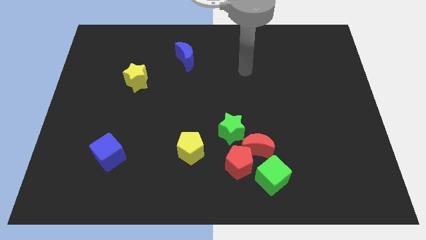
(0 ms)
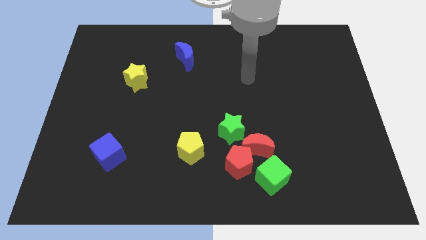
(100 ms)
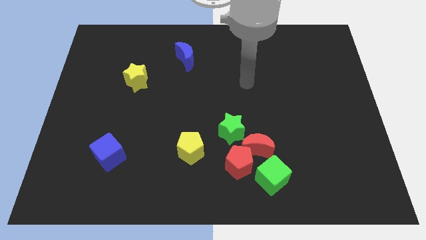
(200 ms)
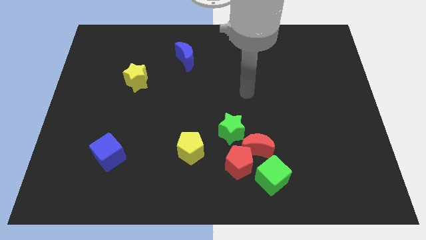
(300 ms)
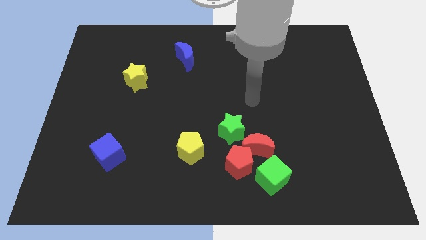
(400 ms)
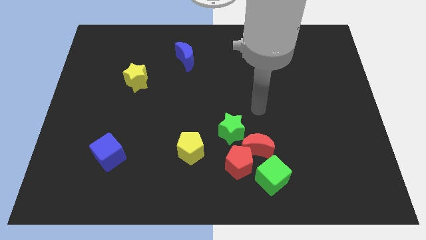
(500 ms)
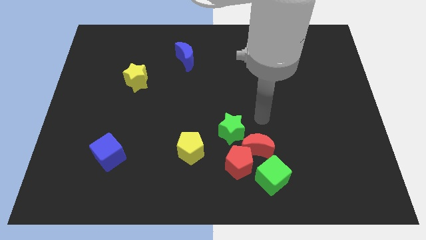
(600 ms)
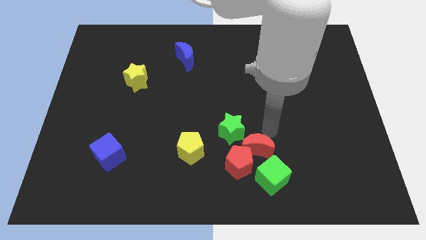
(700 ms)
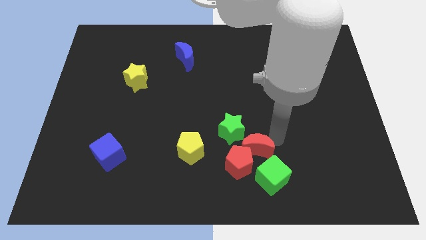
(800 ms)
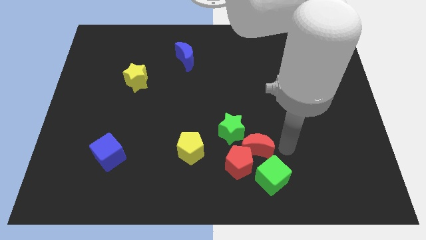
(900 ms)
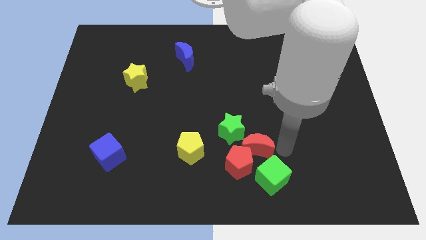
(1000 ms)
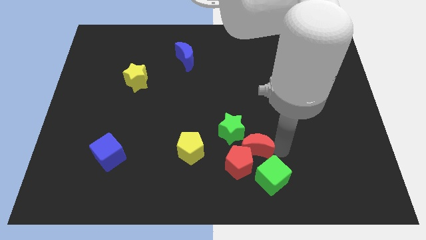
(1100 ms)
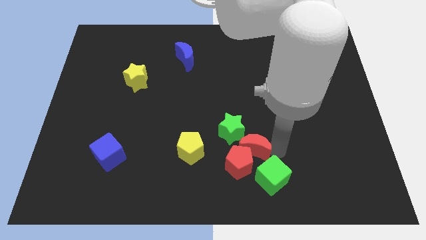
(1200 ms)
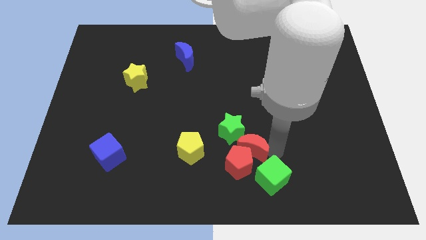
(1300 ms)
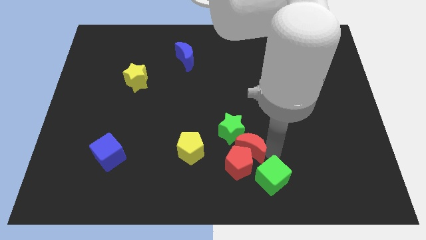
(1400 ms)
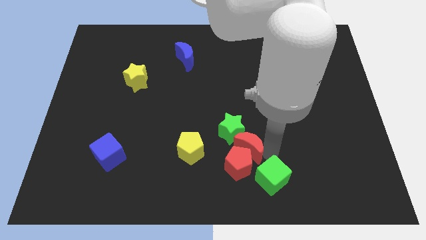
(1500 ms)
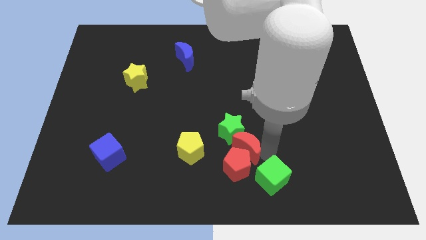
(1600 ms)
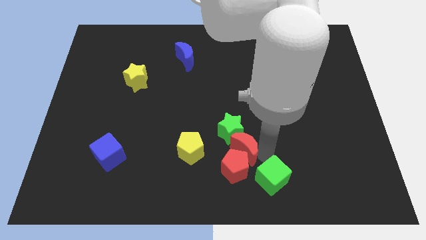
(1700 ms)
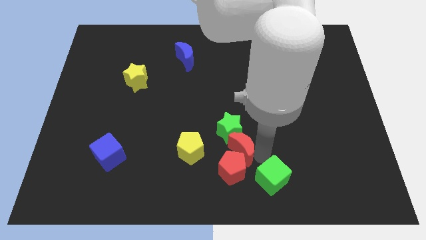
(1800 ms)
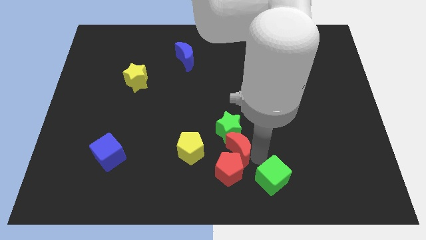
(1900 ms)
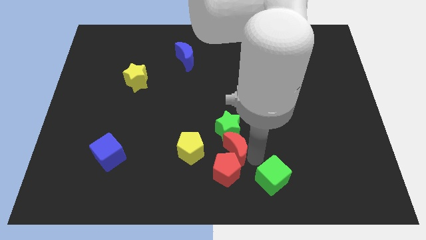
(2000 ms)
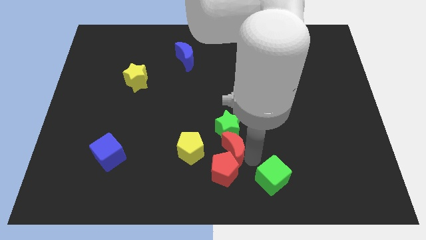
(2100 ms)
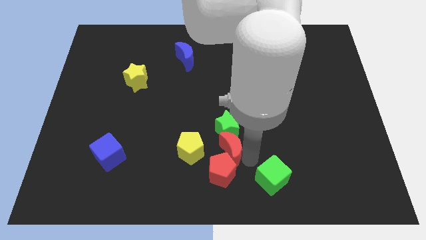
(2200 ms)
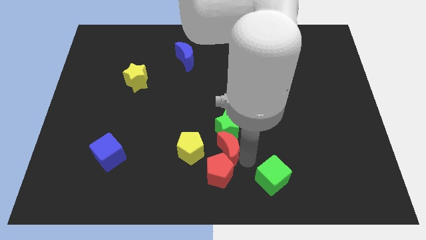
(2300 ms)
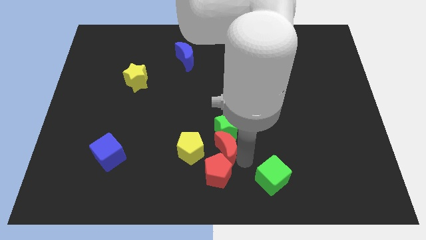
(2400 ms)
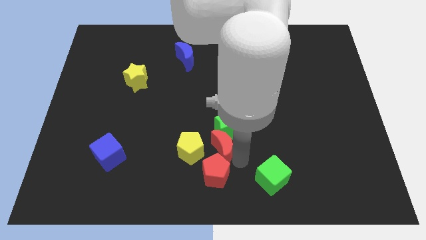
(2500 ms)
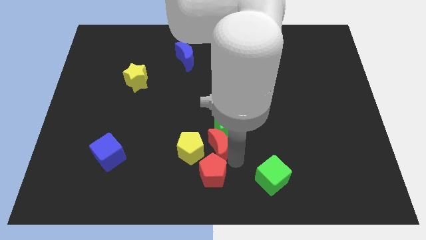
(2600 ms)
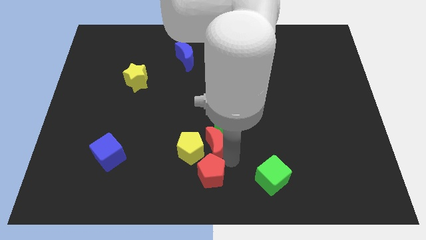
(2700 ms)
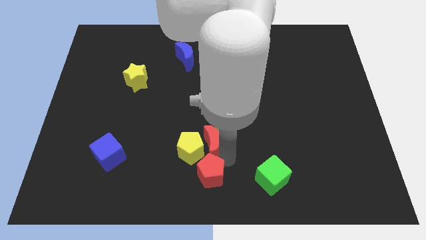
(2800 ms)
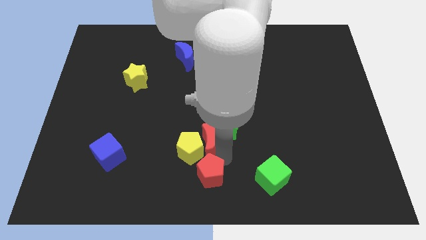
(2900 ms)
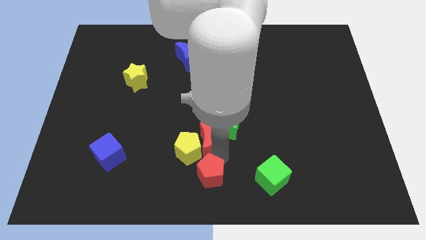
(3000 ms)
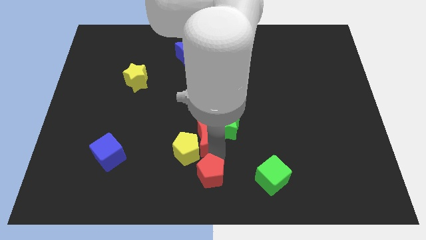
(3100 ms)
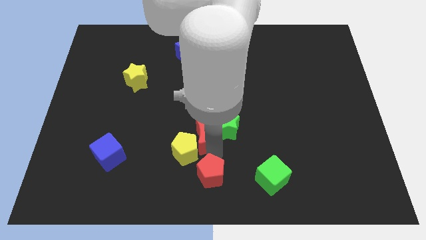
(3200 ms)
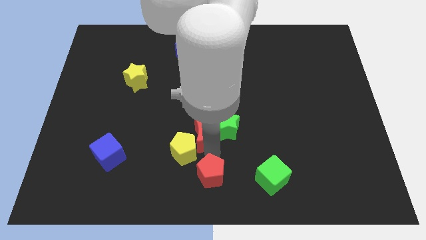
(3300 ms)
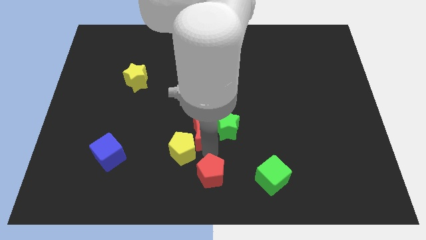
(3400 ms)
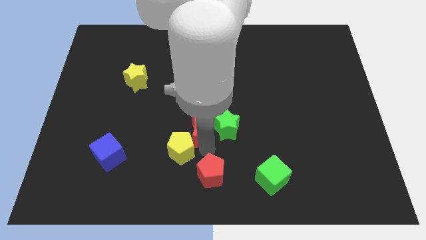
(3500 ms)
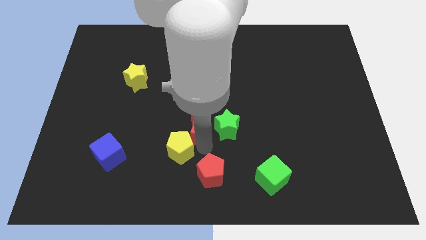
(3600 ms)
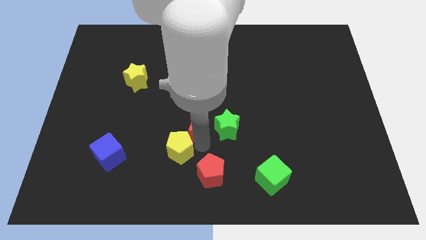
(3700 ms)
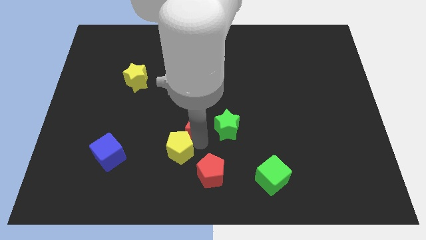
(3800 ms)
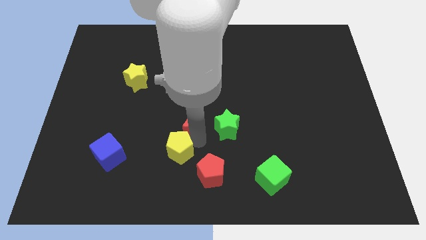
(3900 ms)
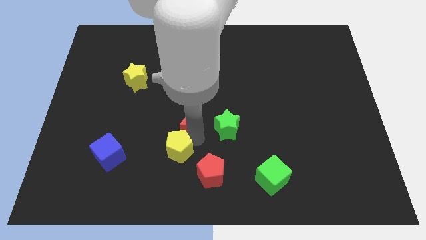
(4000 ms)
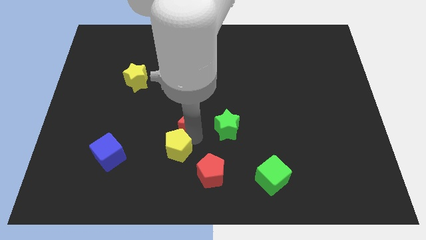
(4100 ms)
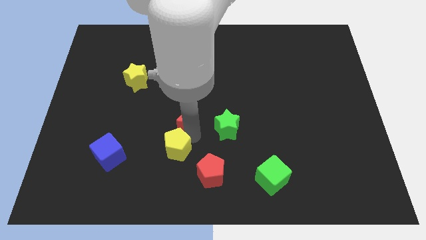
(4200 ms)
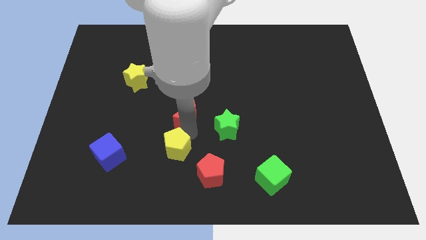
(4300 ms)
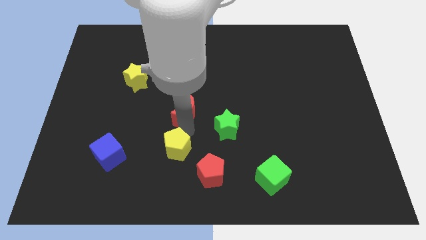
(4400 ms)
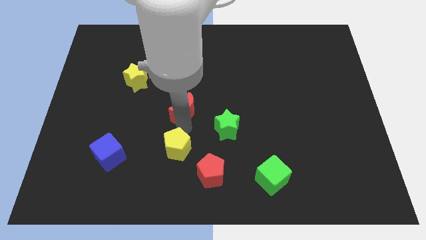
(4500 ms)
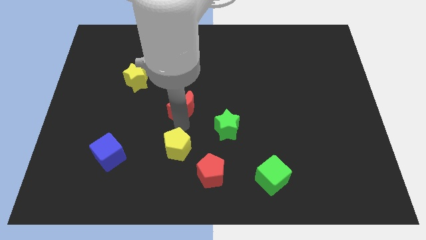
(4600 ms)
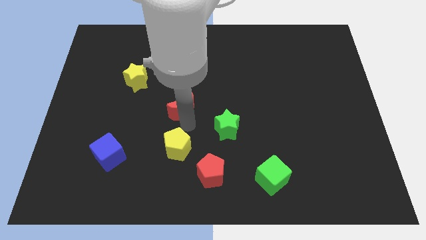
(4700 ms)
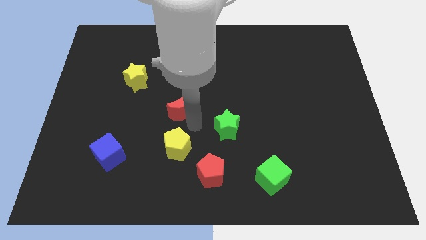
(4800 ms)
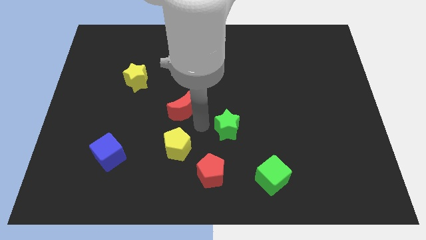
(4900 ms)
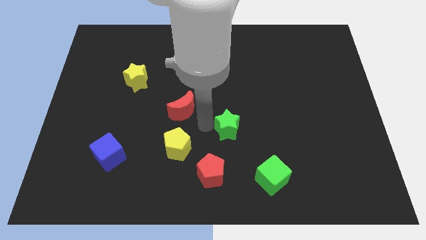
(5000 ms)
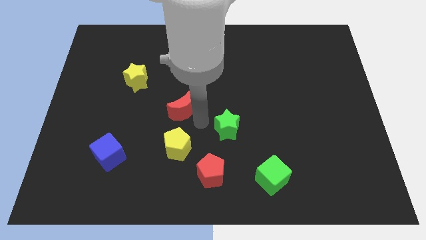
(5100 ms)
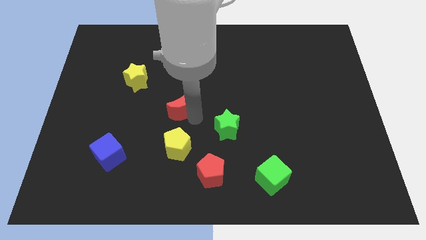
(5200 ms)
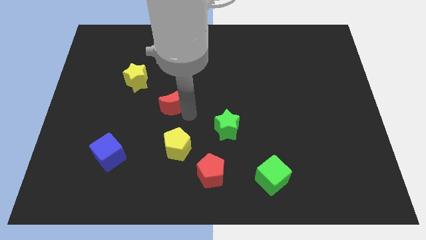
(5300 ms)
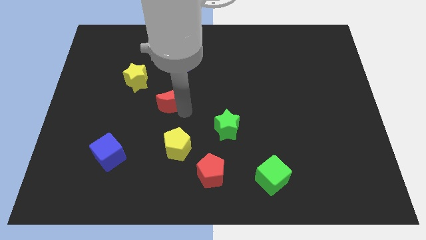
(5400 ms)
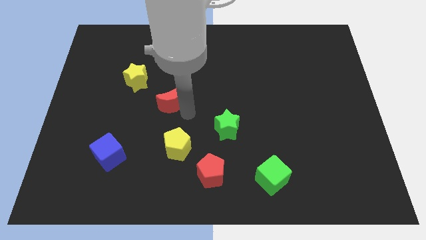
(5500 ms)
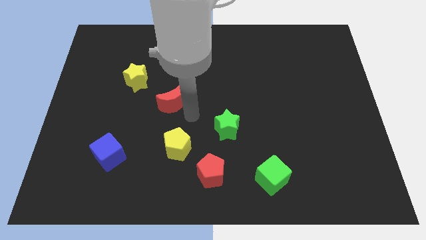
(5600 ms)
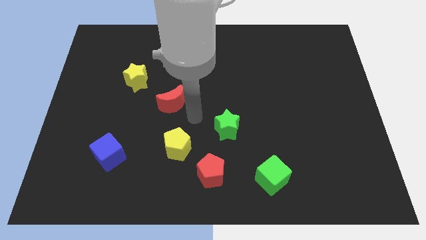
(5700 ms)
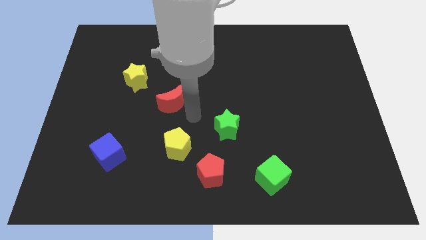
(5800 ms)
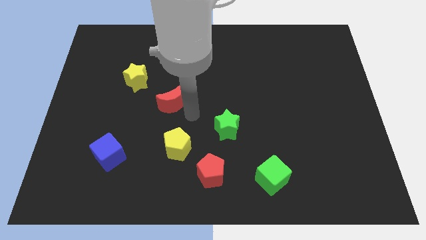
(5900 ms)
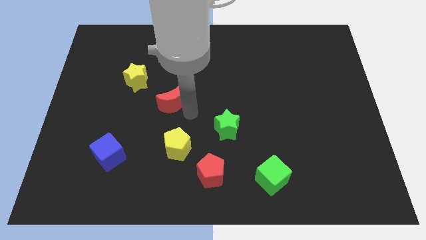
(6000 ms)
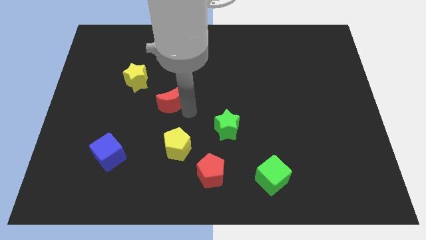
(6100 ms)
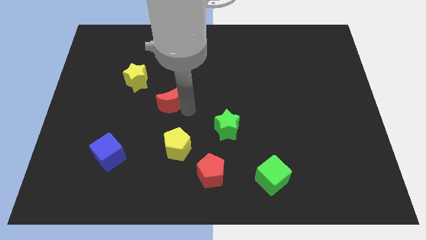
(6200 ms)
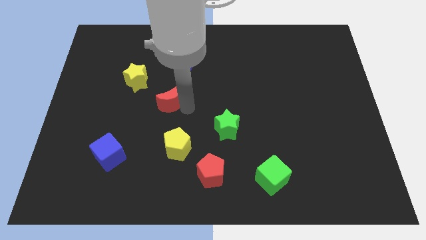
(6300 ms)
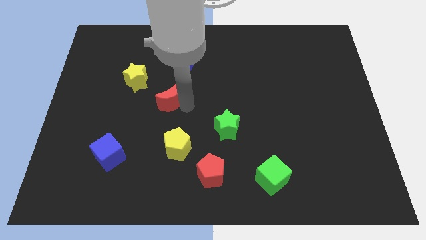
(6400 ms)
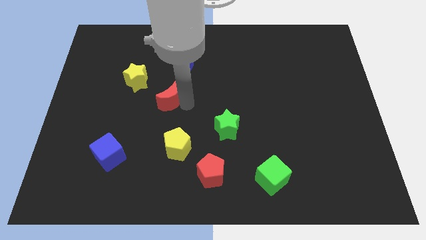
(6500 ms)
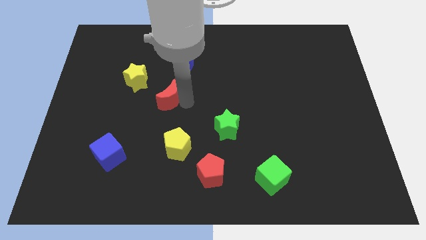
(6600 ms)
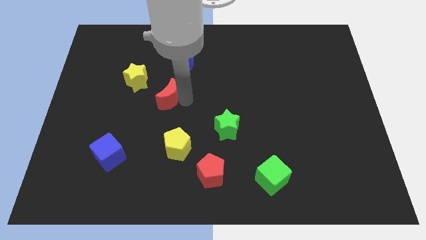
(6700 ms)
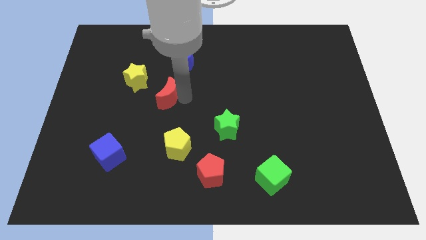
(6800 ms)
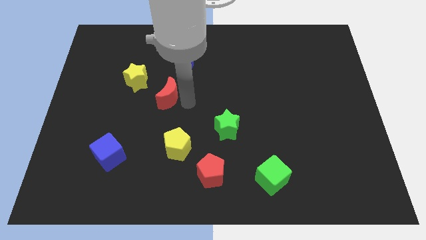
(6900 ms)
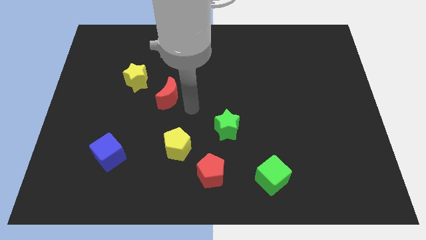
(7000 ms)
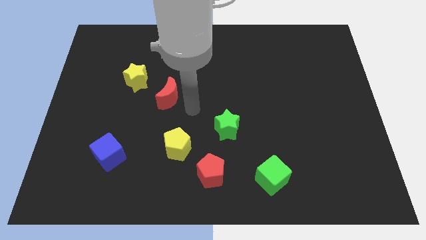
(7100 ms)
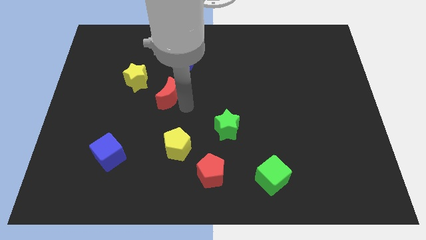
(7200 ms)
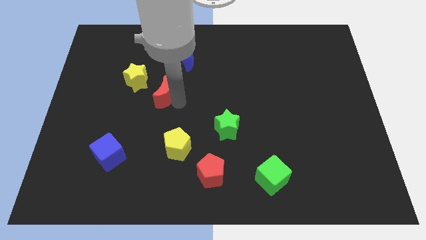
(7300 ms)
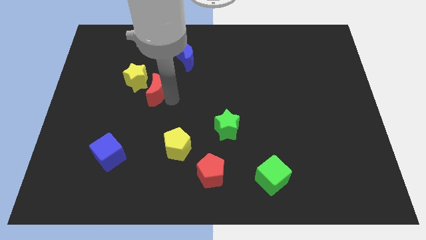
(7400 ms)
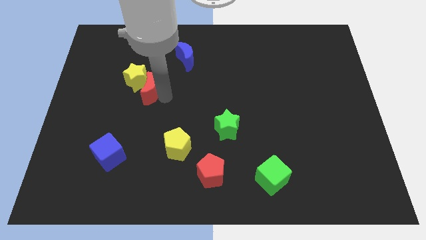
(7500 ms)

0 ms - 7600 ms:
put the red moon to the yellow star

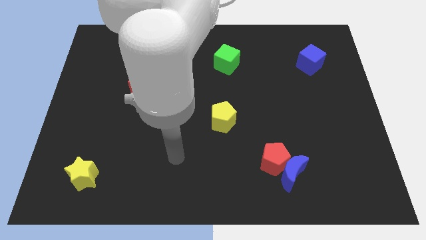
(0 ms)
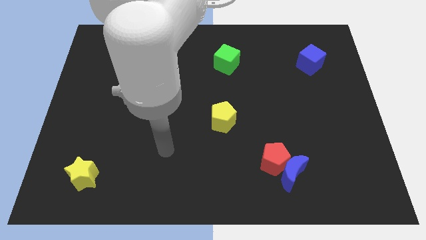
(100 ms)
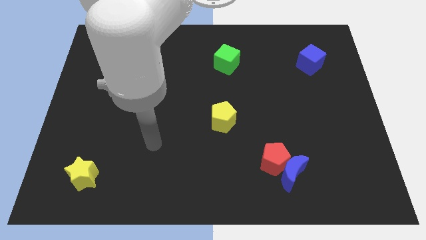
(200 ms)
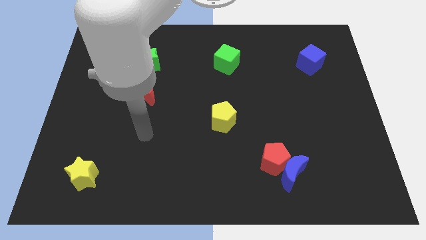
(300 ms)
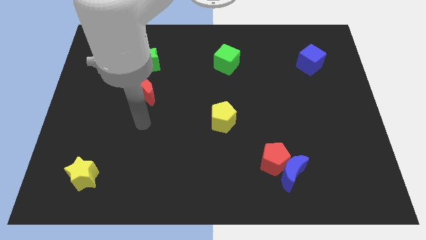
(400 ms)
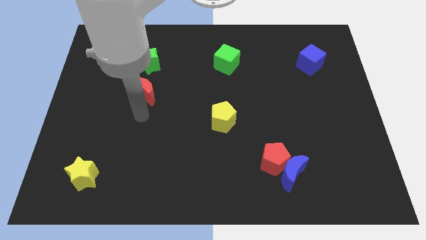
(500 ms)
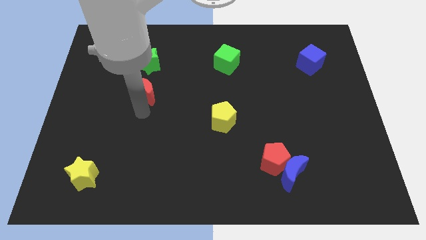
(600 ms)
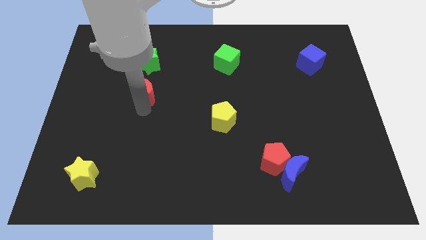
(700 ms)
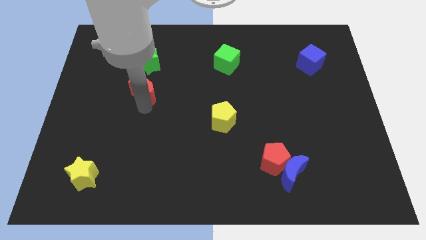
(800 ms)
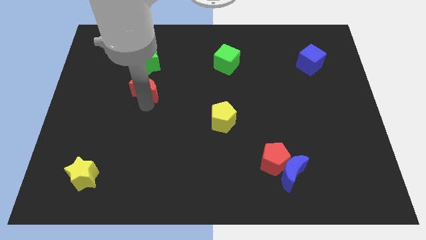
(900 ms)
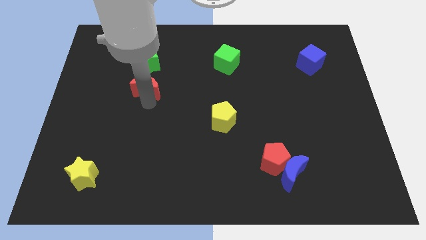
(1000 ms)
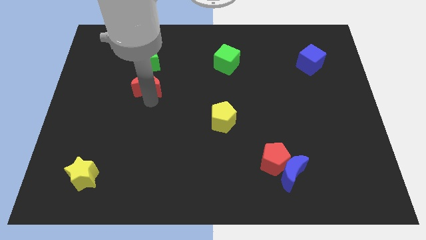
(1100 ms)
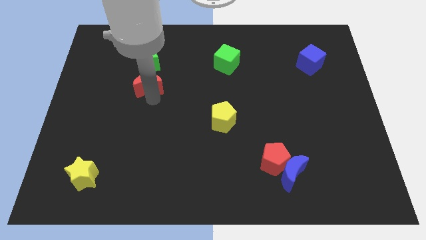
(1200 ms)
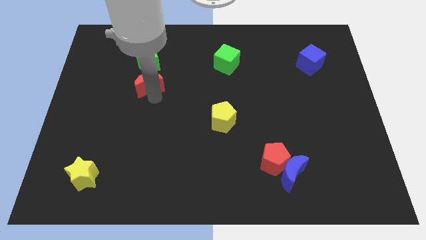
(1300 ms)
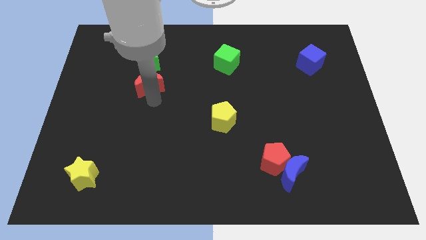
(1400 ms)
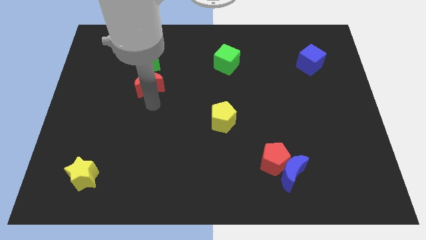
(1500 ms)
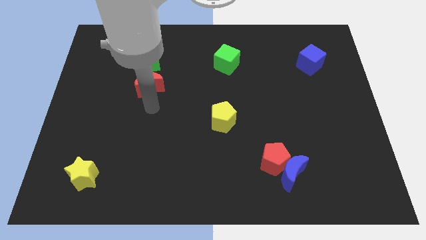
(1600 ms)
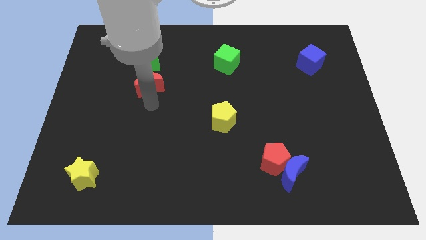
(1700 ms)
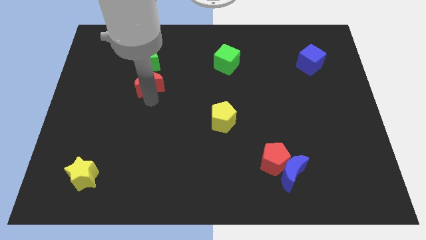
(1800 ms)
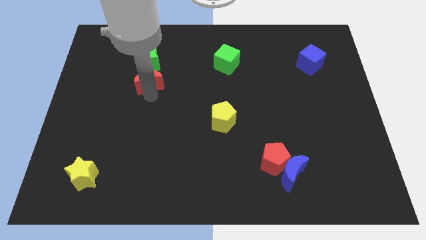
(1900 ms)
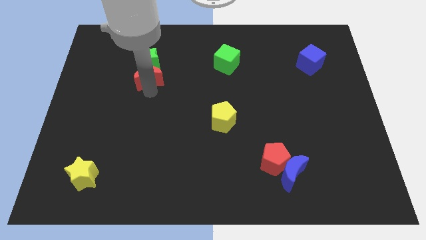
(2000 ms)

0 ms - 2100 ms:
move the red moon towards the green star
